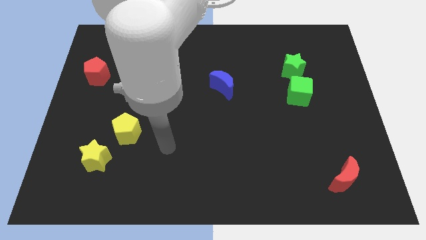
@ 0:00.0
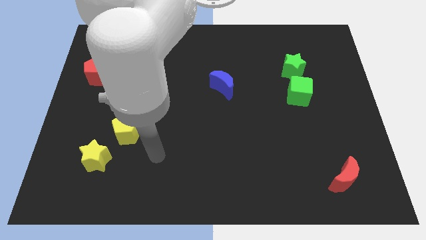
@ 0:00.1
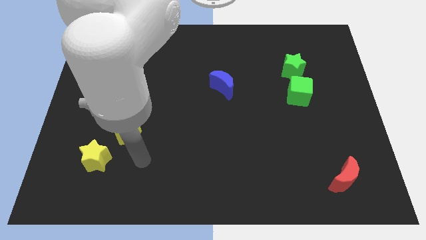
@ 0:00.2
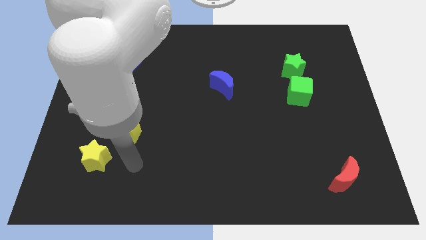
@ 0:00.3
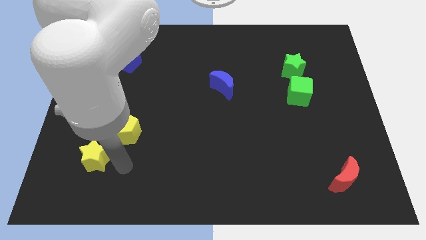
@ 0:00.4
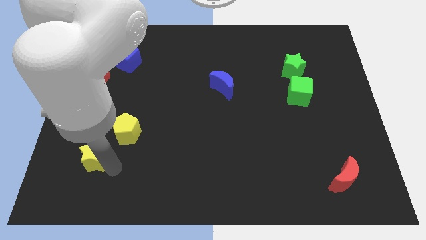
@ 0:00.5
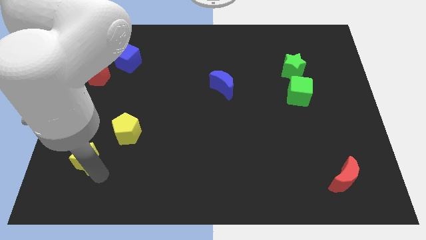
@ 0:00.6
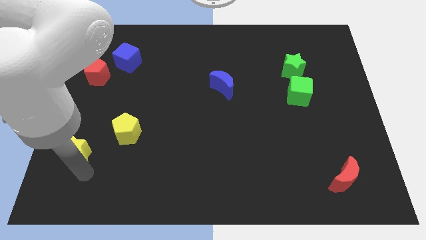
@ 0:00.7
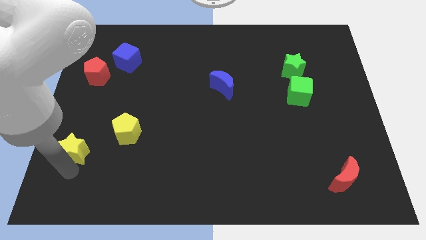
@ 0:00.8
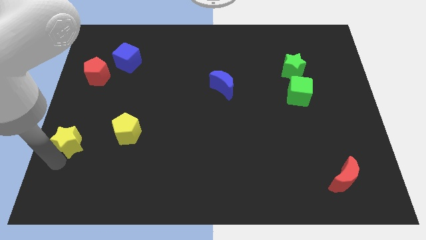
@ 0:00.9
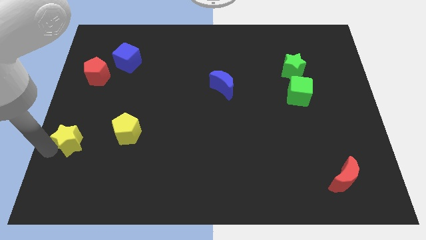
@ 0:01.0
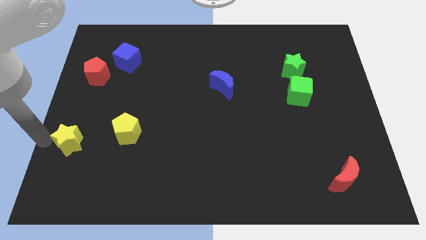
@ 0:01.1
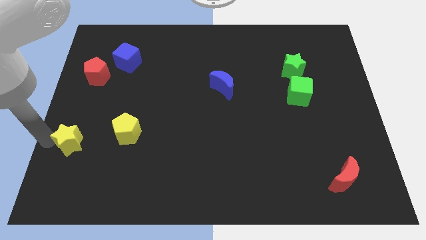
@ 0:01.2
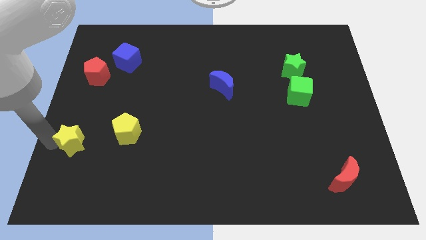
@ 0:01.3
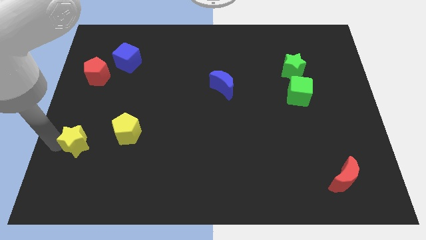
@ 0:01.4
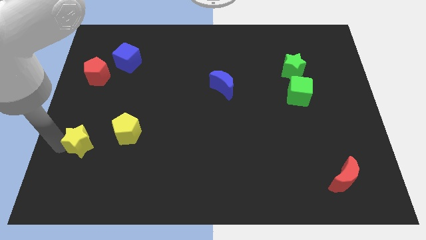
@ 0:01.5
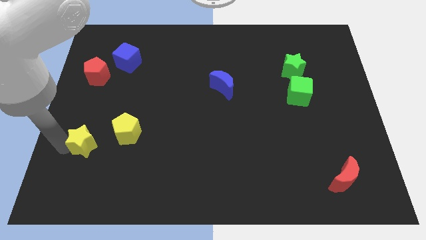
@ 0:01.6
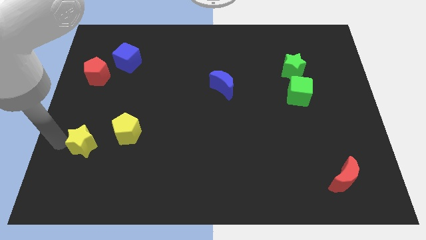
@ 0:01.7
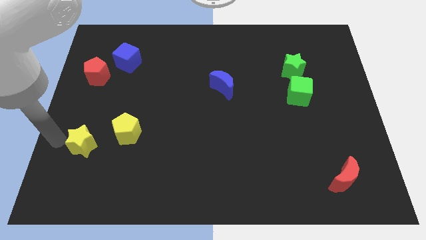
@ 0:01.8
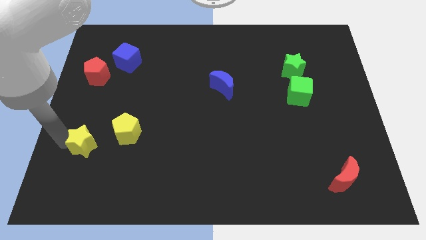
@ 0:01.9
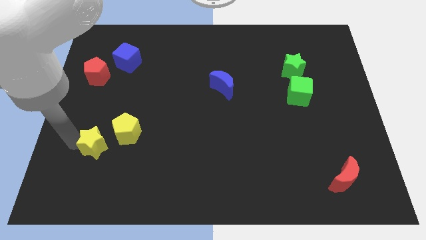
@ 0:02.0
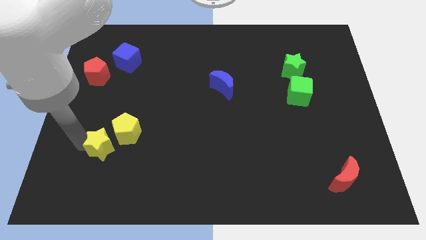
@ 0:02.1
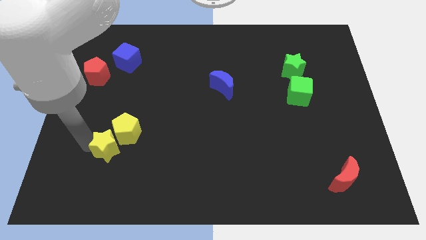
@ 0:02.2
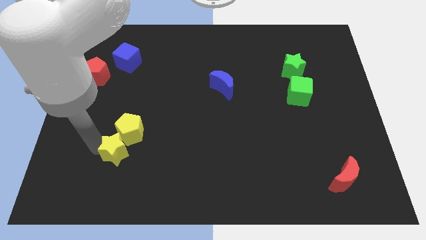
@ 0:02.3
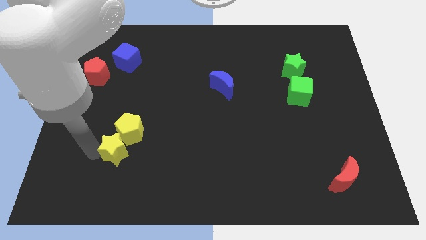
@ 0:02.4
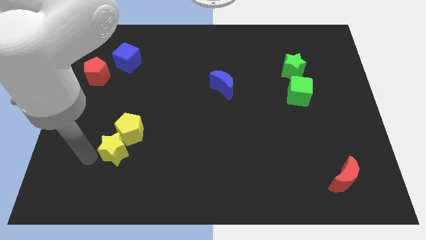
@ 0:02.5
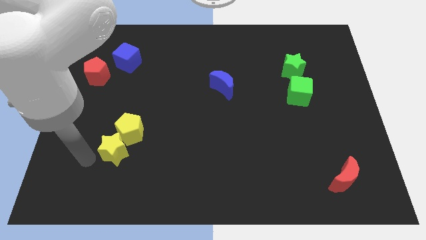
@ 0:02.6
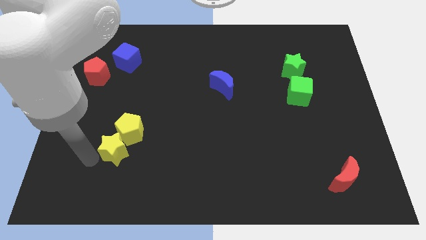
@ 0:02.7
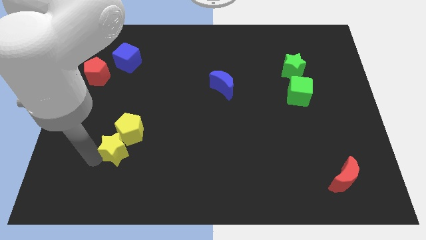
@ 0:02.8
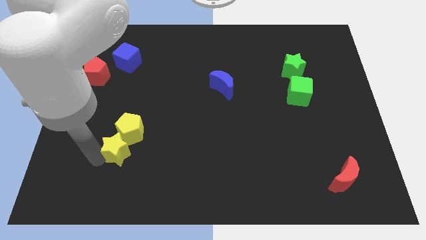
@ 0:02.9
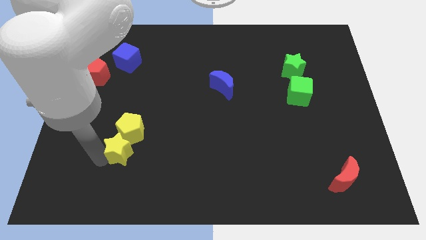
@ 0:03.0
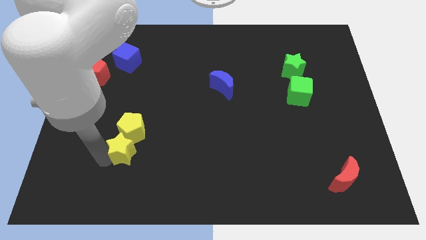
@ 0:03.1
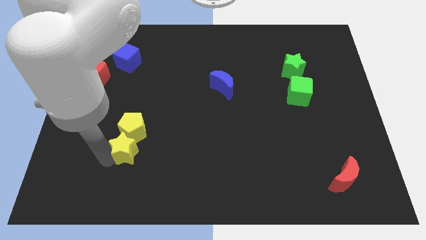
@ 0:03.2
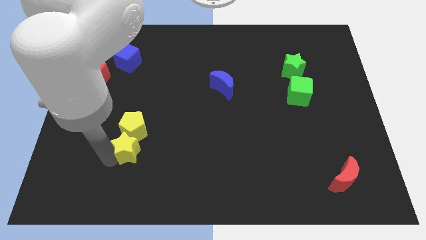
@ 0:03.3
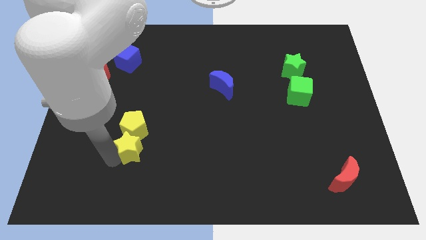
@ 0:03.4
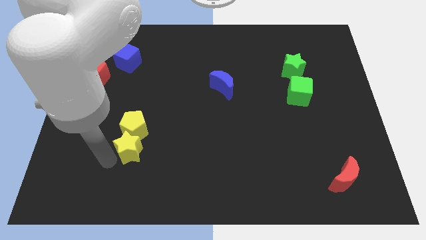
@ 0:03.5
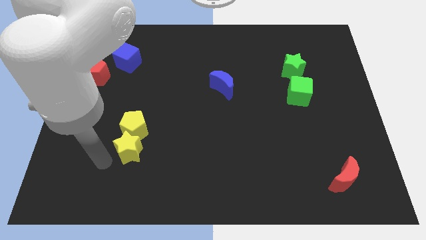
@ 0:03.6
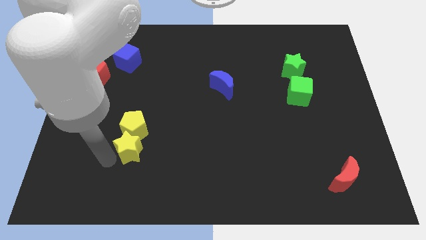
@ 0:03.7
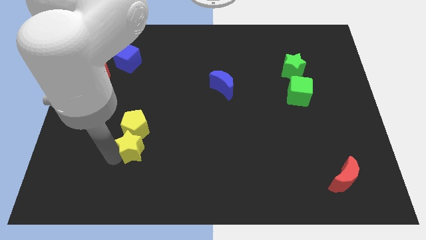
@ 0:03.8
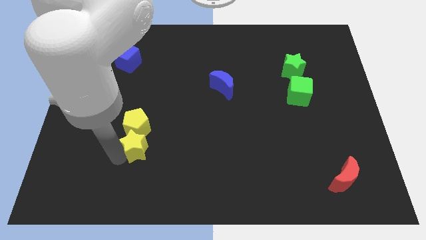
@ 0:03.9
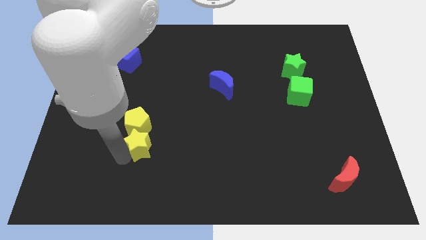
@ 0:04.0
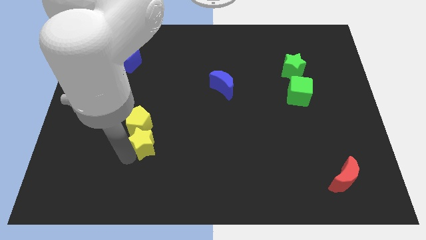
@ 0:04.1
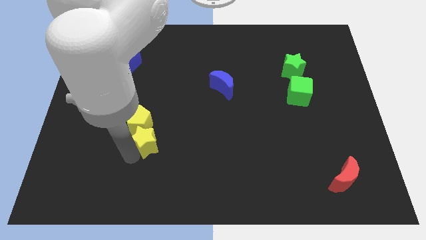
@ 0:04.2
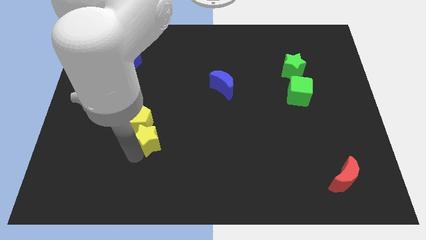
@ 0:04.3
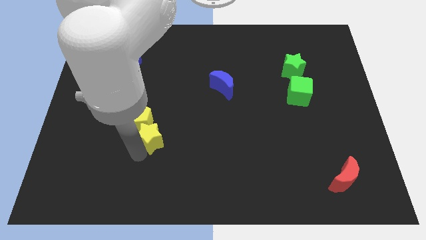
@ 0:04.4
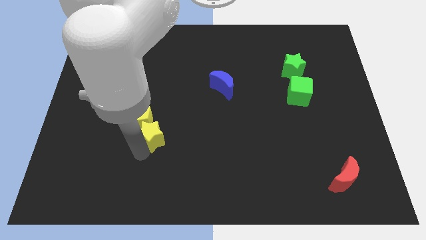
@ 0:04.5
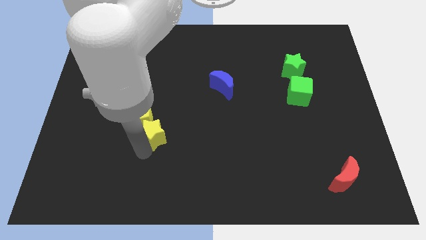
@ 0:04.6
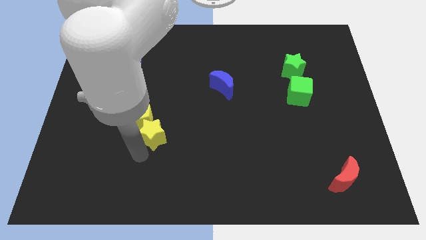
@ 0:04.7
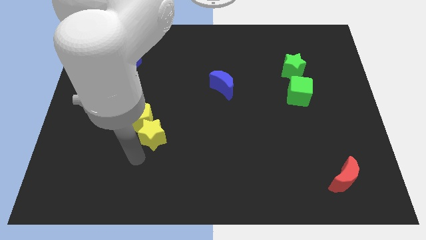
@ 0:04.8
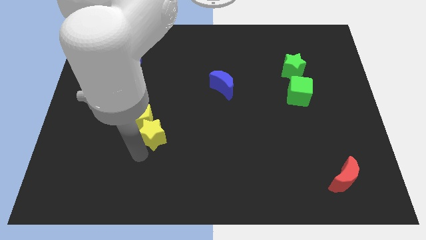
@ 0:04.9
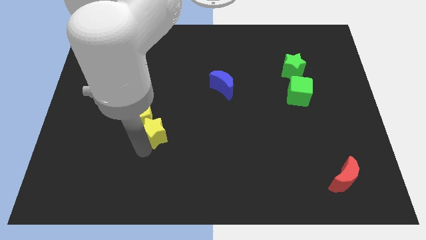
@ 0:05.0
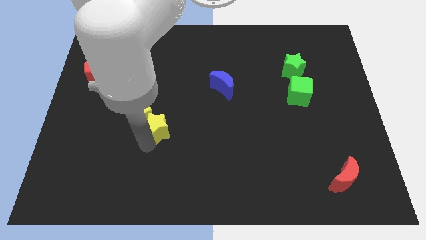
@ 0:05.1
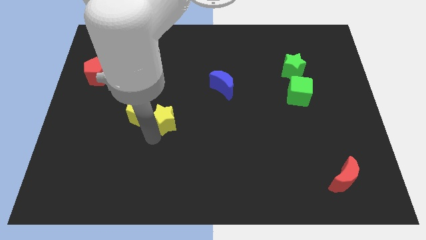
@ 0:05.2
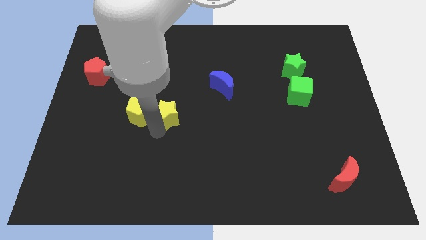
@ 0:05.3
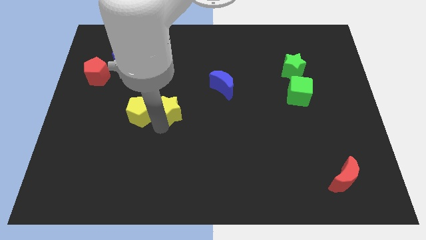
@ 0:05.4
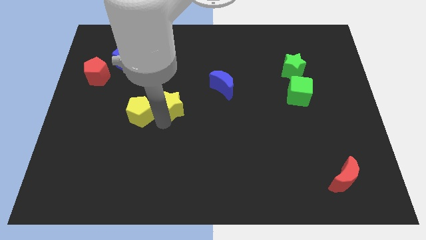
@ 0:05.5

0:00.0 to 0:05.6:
push the yellow star upwards and to the right

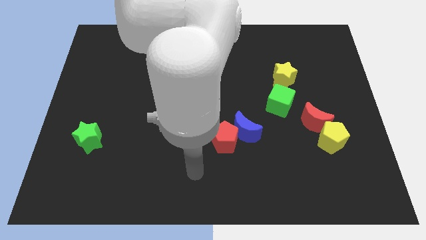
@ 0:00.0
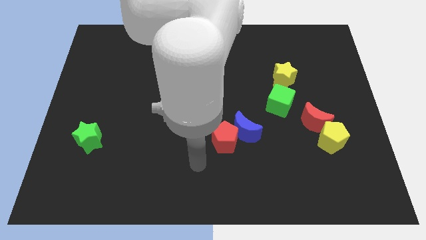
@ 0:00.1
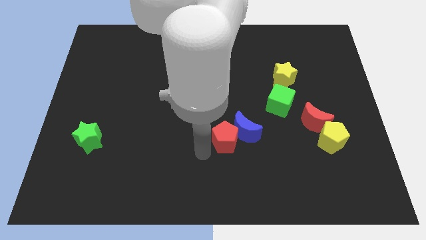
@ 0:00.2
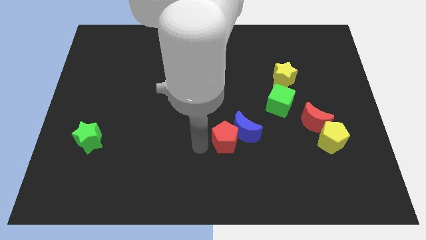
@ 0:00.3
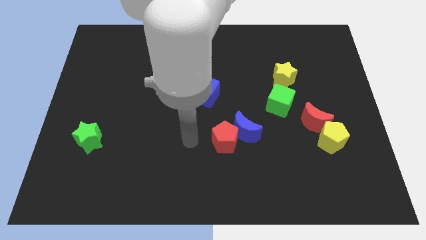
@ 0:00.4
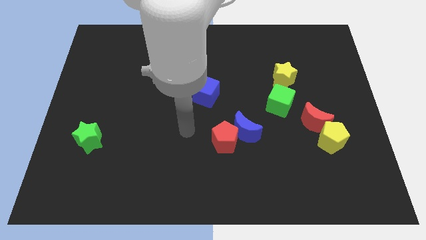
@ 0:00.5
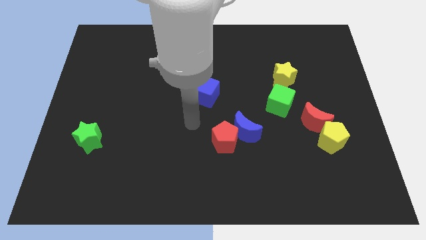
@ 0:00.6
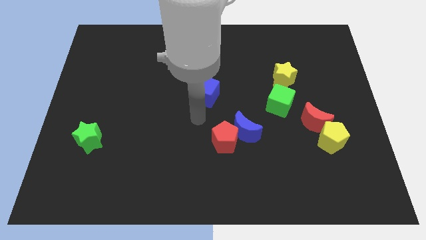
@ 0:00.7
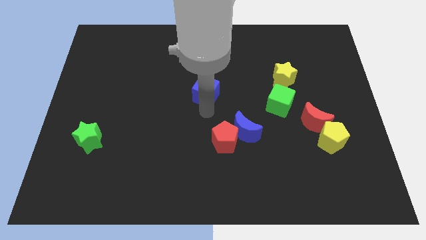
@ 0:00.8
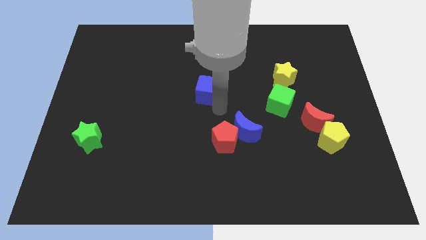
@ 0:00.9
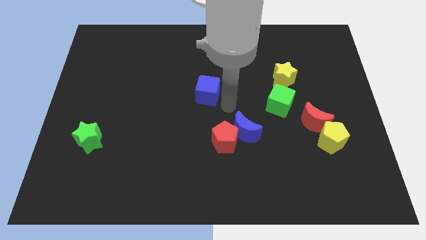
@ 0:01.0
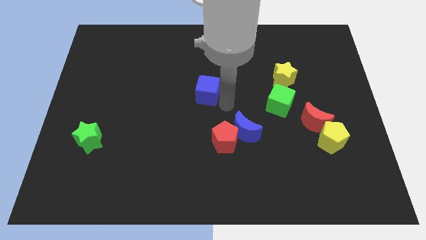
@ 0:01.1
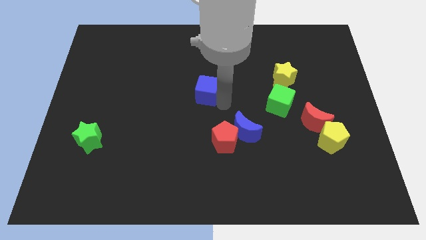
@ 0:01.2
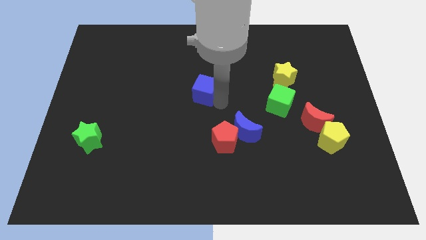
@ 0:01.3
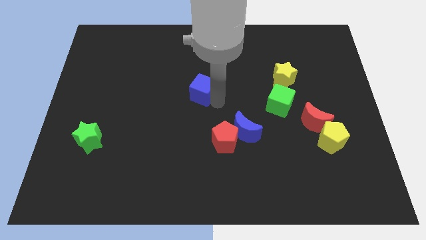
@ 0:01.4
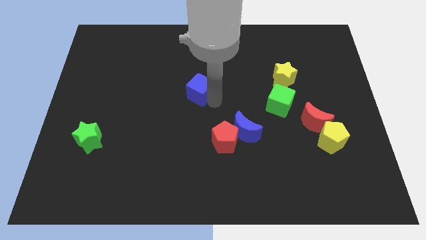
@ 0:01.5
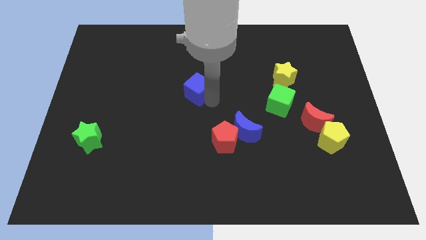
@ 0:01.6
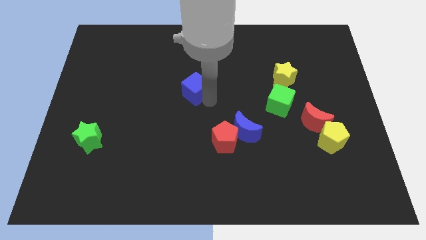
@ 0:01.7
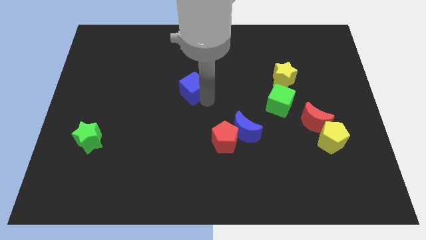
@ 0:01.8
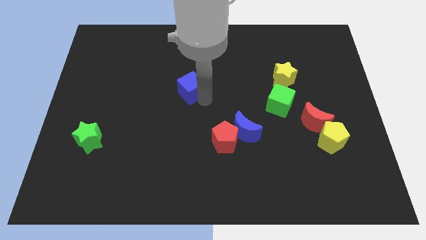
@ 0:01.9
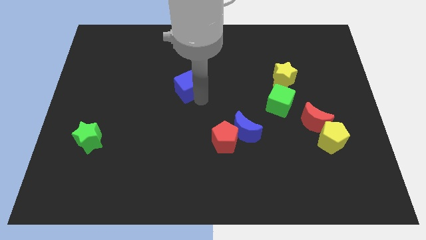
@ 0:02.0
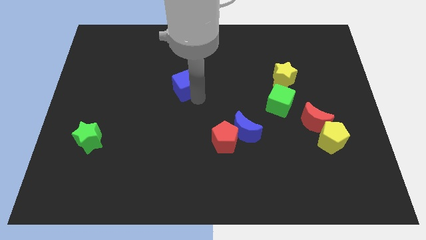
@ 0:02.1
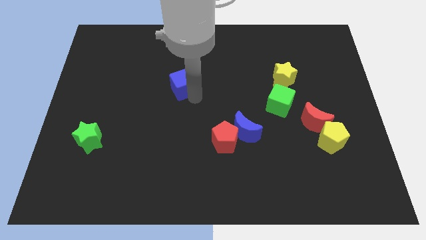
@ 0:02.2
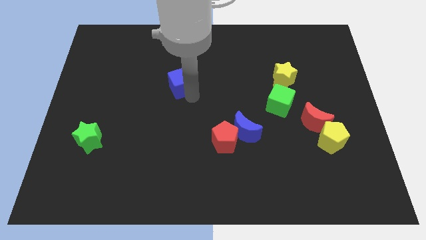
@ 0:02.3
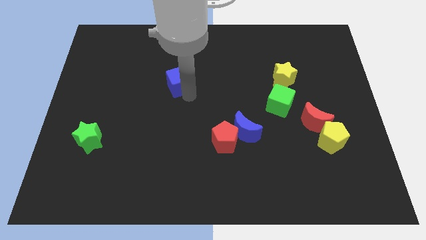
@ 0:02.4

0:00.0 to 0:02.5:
slightly slide the blue cube diagonally up and to the left
